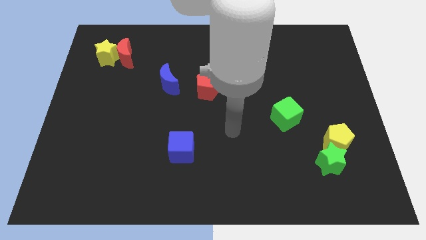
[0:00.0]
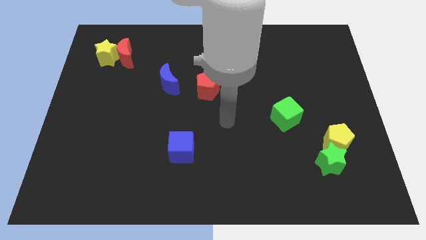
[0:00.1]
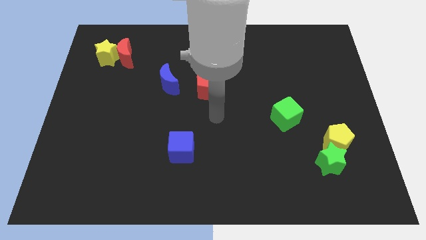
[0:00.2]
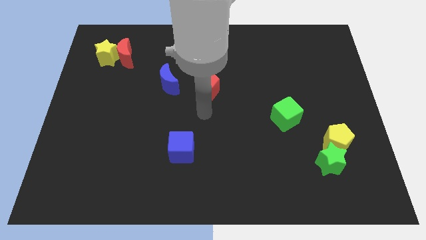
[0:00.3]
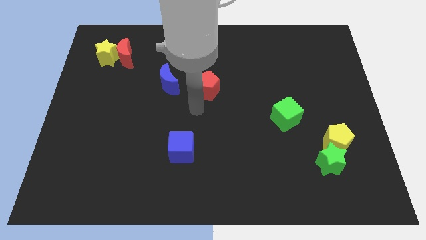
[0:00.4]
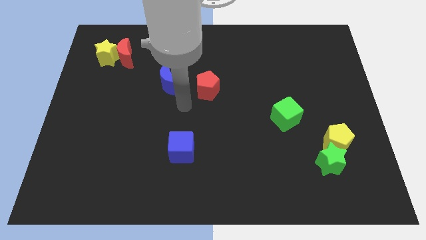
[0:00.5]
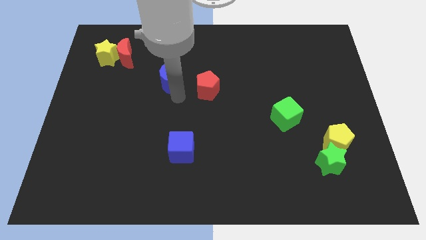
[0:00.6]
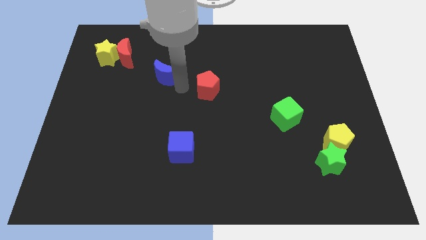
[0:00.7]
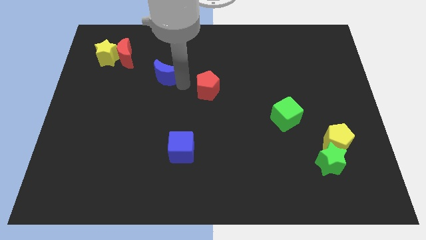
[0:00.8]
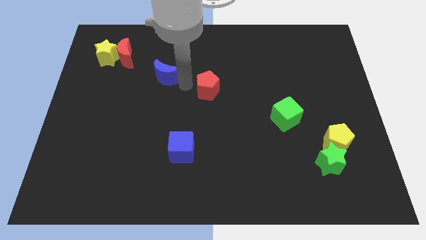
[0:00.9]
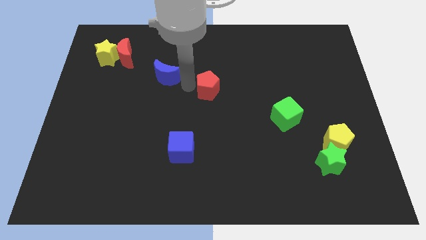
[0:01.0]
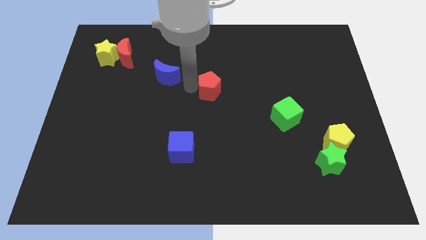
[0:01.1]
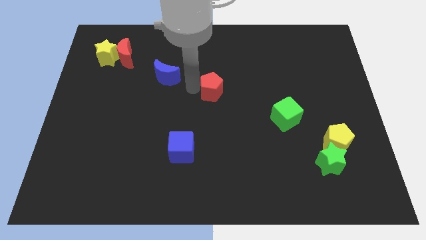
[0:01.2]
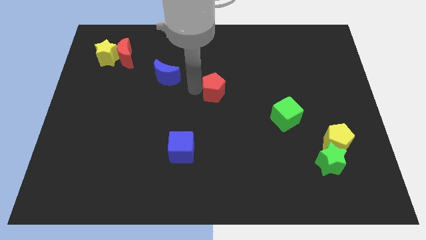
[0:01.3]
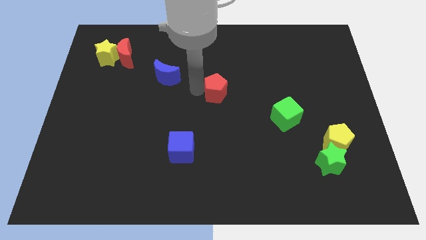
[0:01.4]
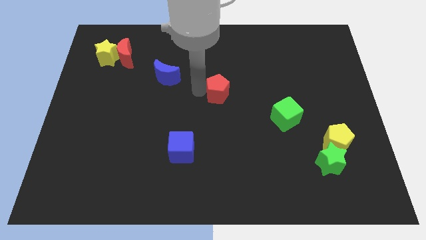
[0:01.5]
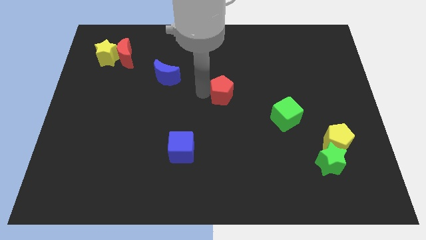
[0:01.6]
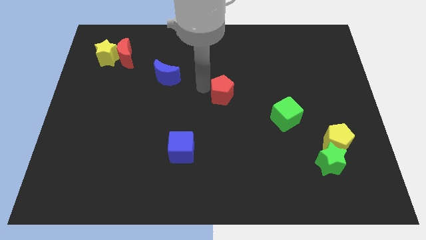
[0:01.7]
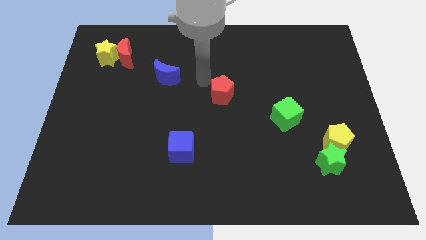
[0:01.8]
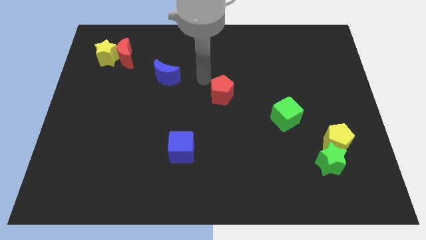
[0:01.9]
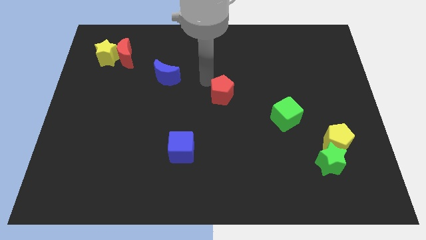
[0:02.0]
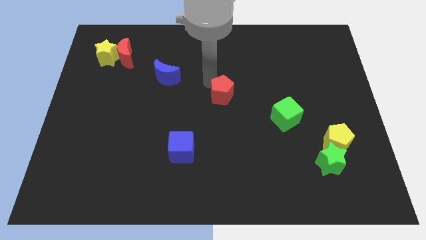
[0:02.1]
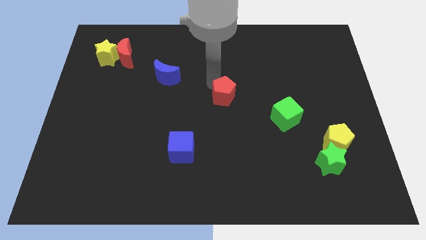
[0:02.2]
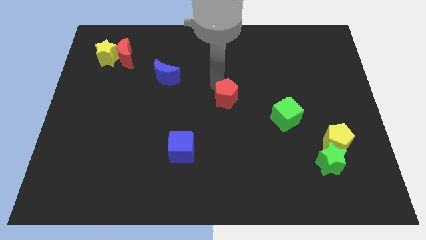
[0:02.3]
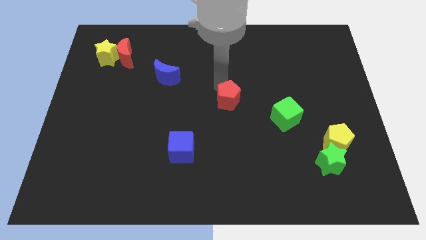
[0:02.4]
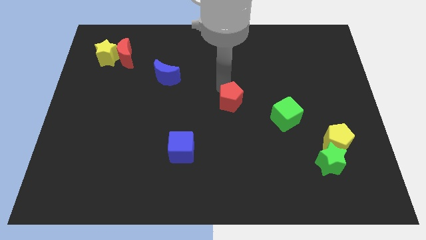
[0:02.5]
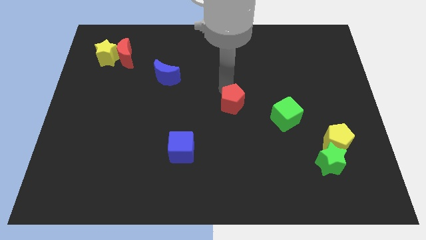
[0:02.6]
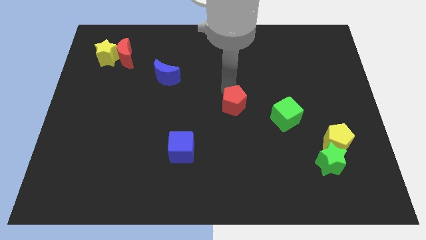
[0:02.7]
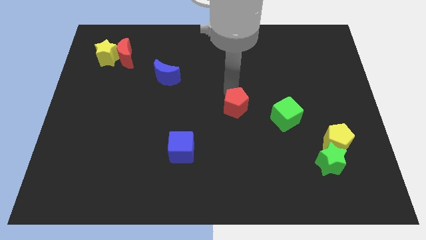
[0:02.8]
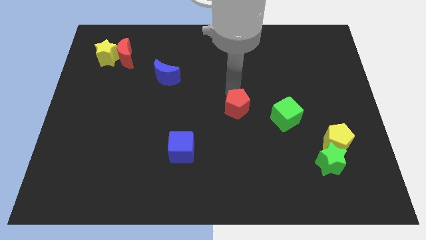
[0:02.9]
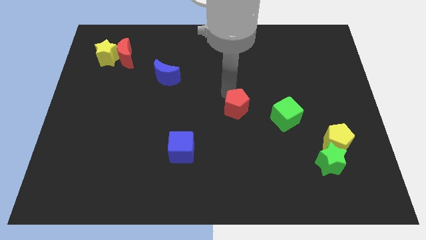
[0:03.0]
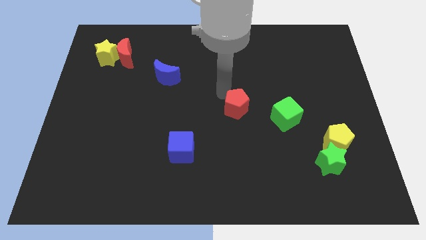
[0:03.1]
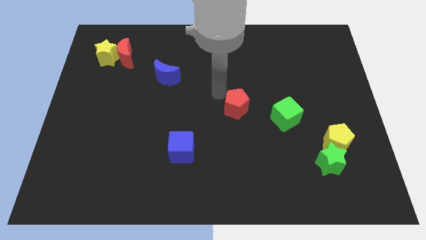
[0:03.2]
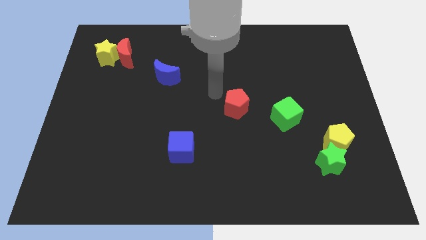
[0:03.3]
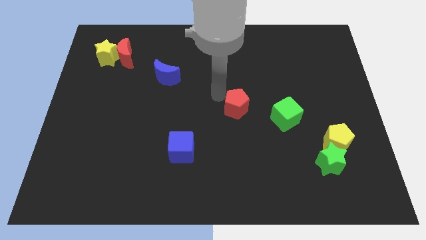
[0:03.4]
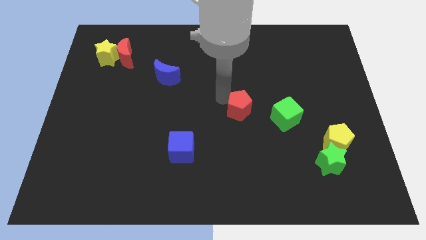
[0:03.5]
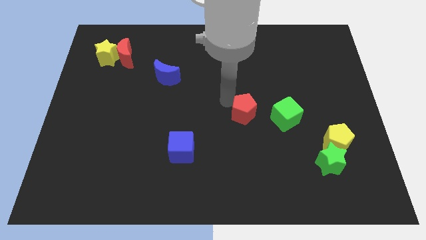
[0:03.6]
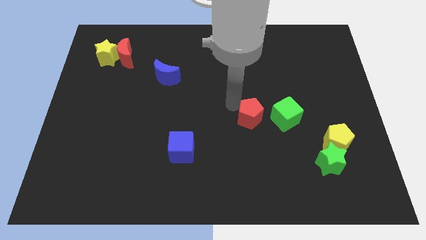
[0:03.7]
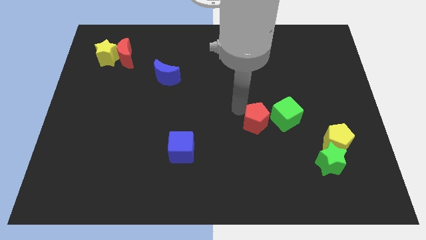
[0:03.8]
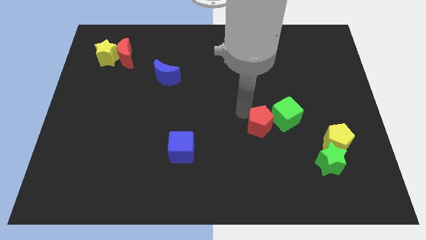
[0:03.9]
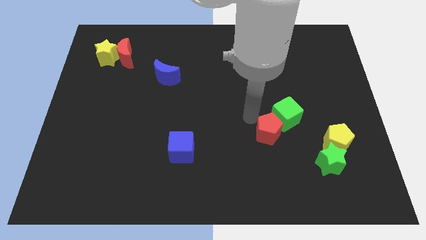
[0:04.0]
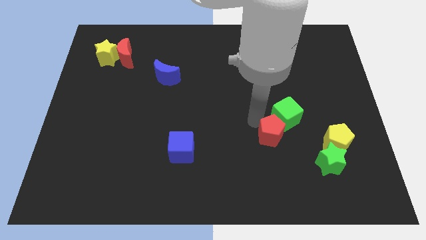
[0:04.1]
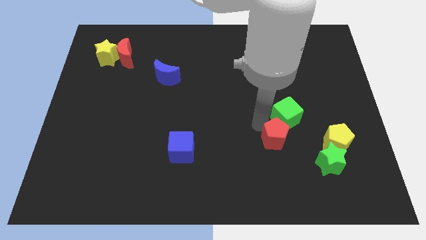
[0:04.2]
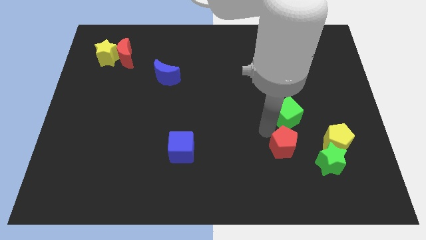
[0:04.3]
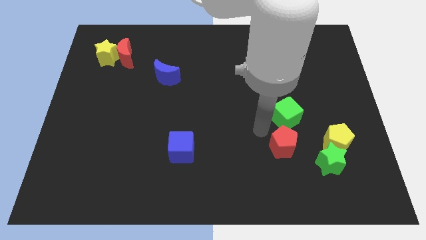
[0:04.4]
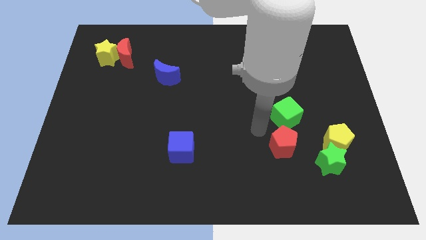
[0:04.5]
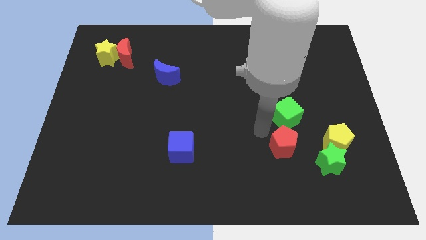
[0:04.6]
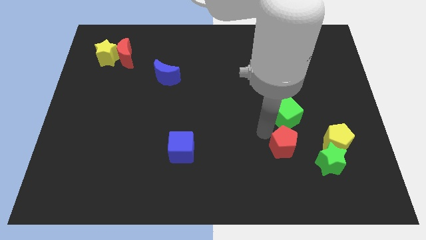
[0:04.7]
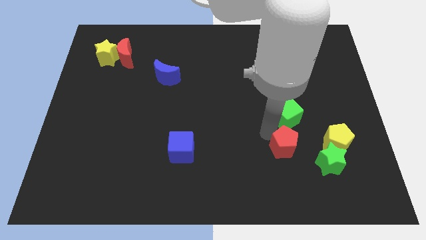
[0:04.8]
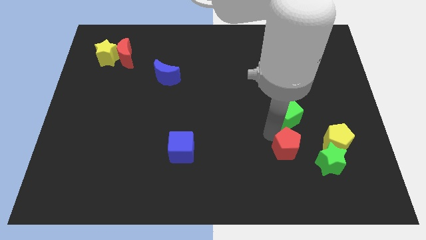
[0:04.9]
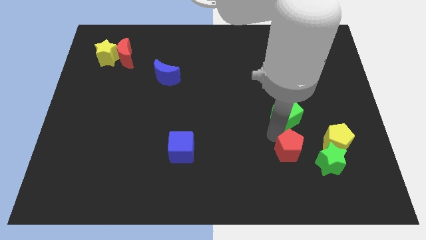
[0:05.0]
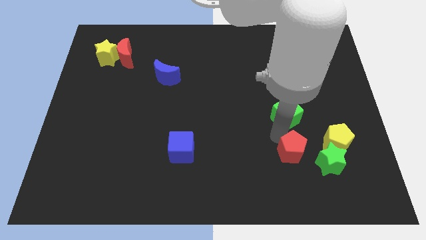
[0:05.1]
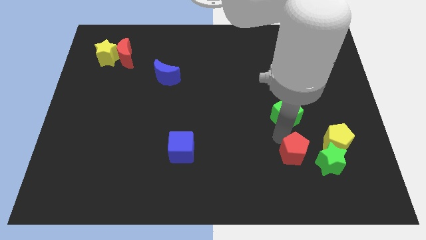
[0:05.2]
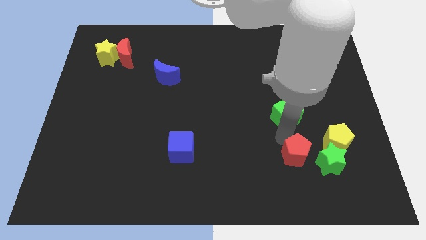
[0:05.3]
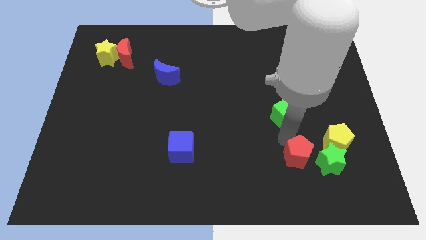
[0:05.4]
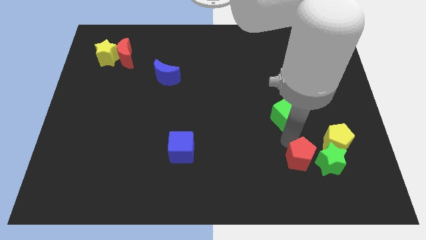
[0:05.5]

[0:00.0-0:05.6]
push the red pentagon to the green star

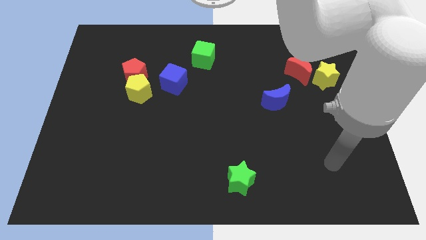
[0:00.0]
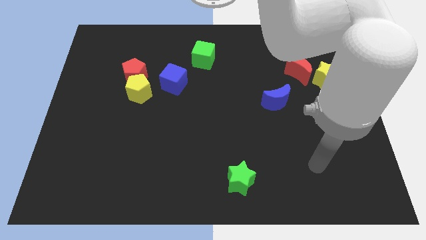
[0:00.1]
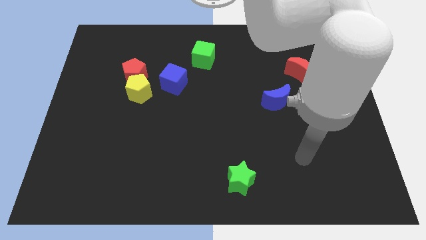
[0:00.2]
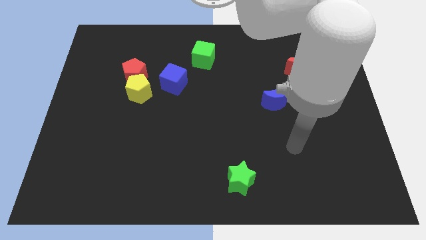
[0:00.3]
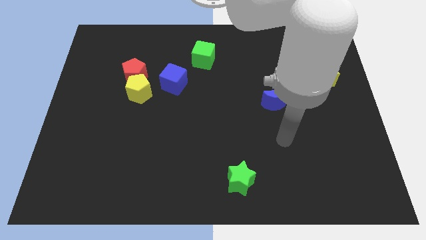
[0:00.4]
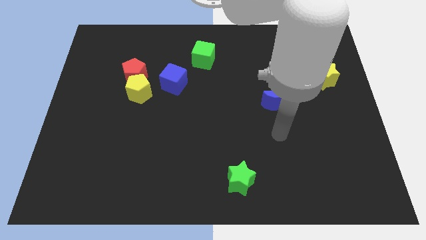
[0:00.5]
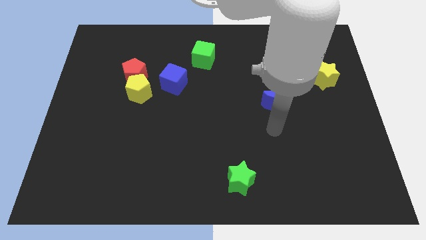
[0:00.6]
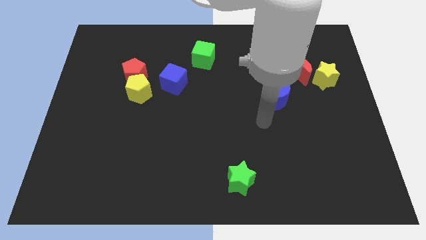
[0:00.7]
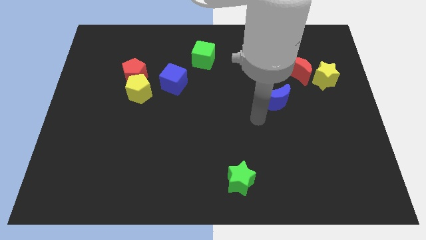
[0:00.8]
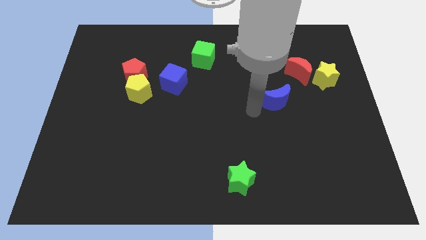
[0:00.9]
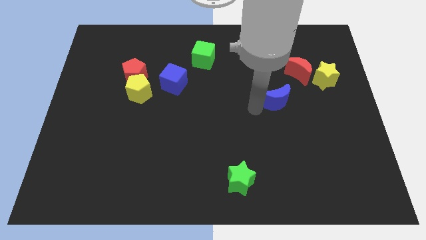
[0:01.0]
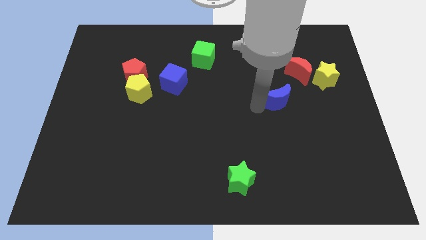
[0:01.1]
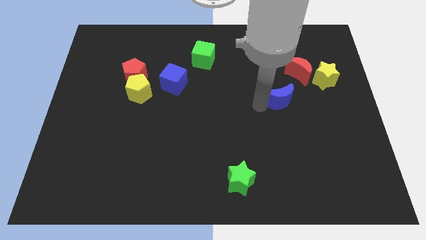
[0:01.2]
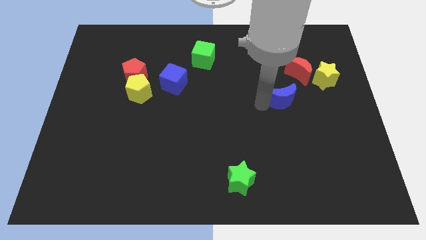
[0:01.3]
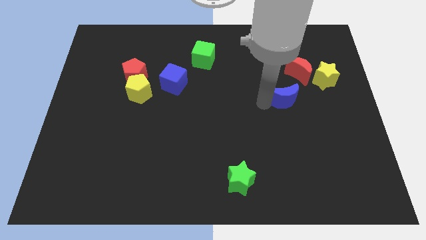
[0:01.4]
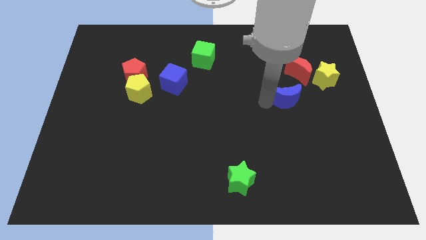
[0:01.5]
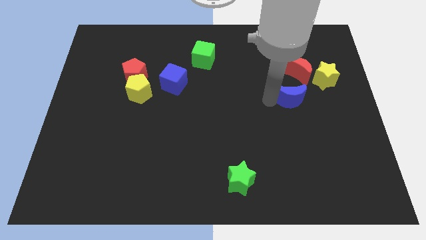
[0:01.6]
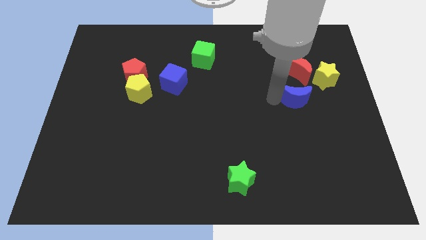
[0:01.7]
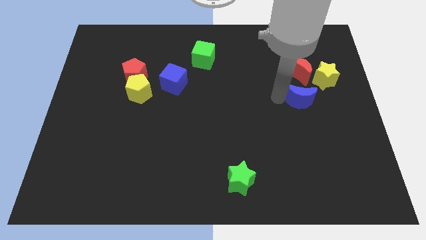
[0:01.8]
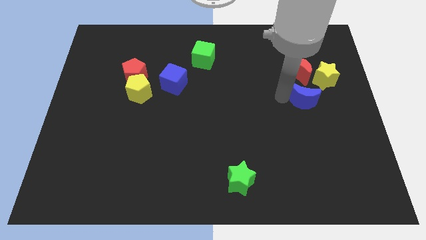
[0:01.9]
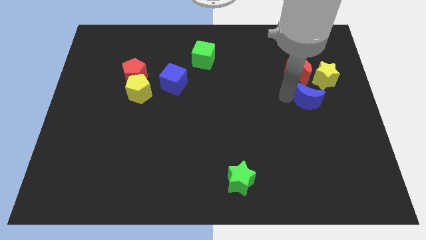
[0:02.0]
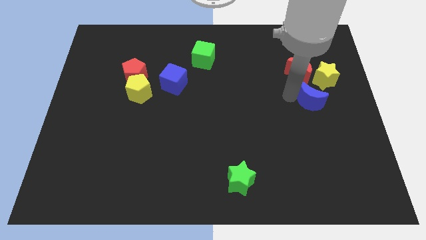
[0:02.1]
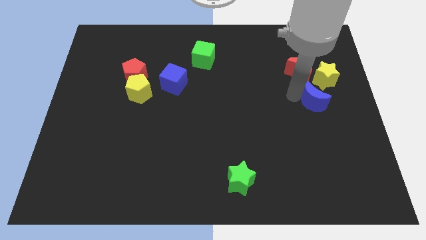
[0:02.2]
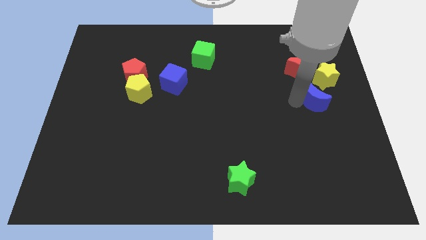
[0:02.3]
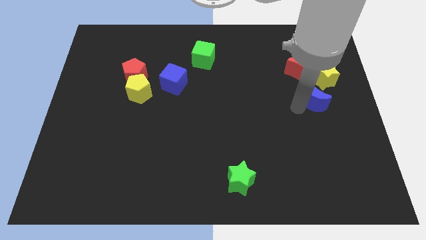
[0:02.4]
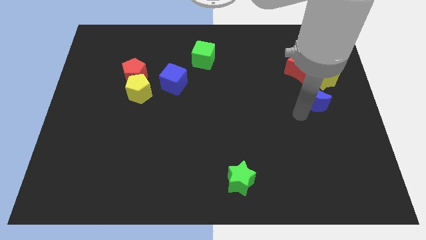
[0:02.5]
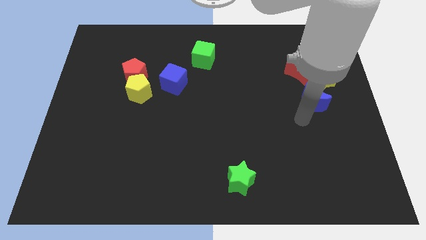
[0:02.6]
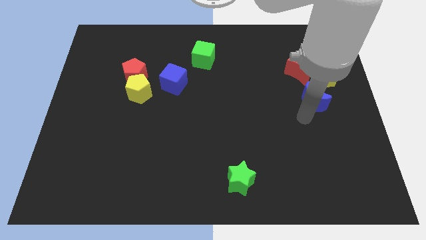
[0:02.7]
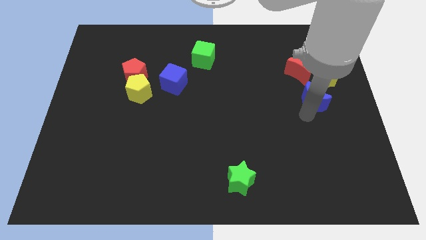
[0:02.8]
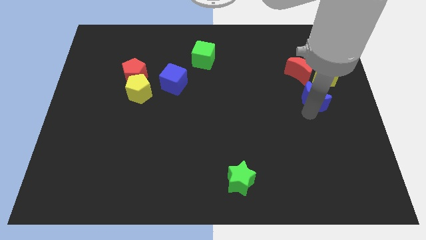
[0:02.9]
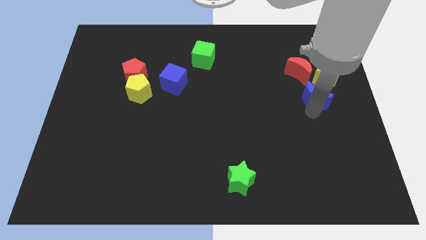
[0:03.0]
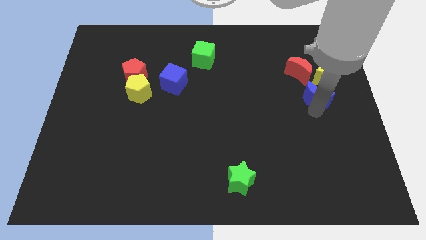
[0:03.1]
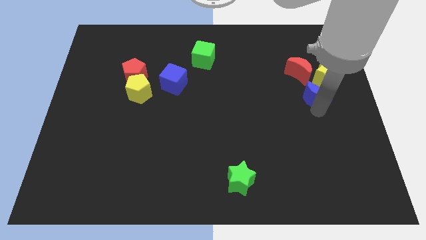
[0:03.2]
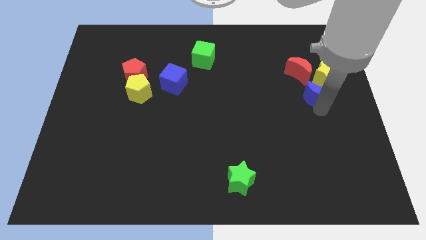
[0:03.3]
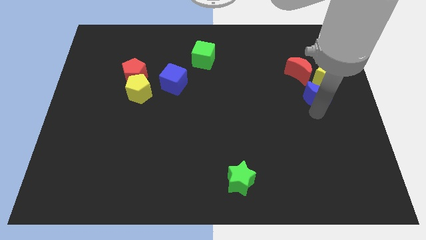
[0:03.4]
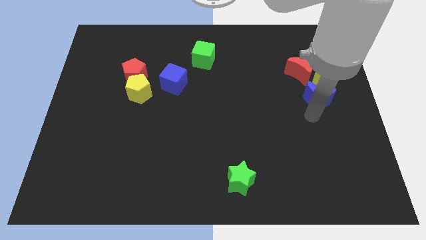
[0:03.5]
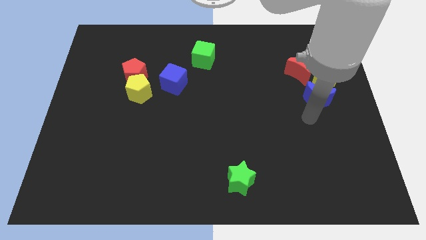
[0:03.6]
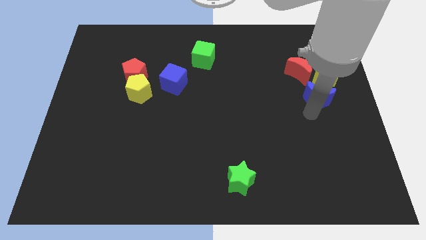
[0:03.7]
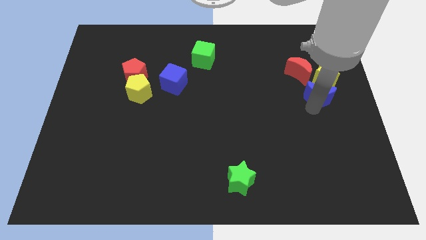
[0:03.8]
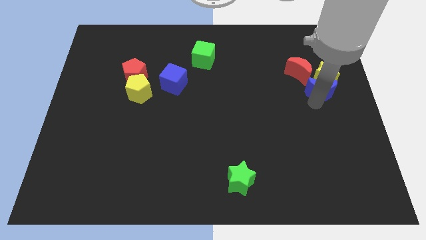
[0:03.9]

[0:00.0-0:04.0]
push the blue moon close to the yellow star
